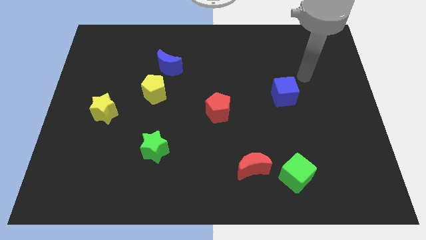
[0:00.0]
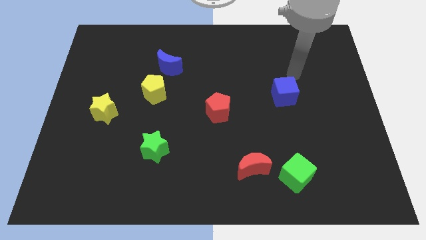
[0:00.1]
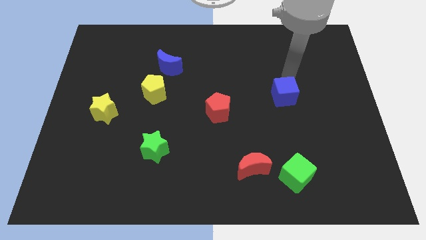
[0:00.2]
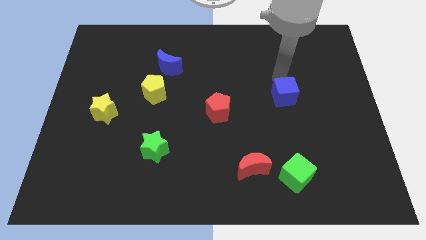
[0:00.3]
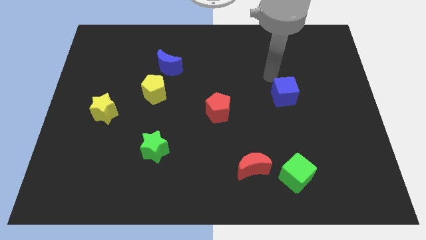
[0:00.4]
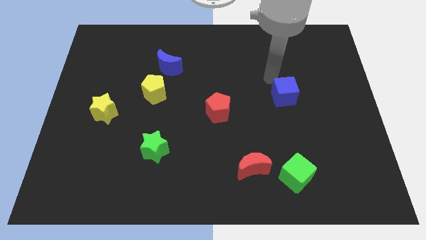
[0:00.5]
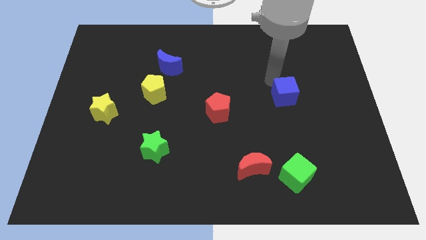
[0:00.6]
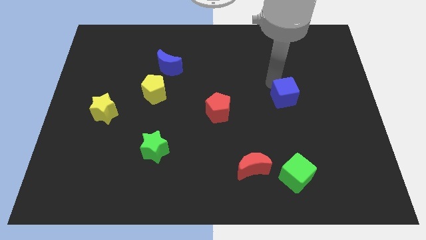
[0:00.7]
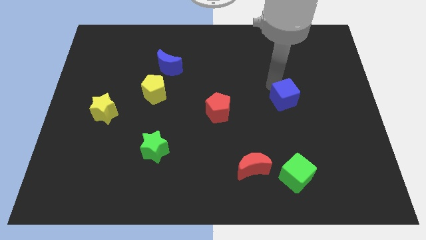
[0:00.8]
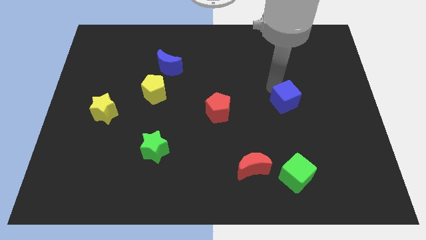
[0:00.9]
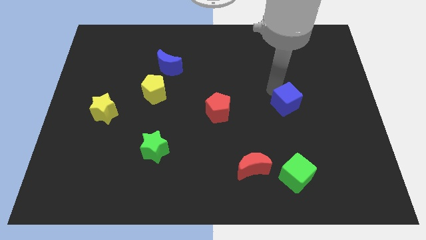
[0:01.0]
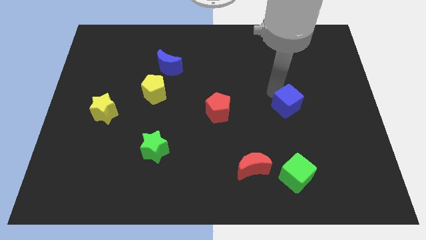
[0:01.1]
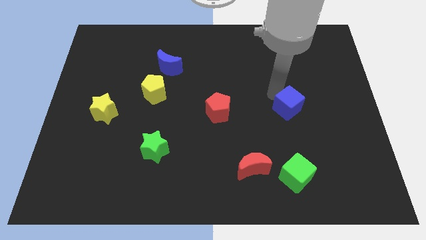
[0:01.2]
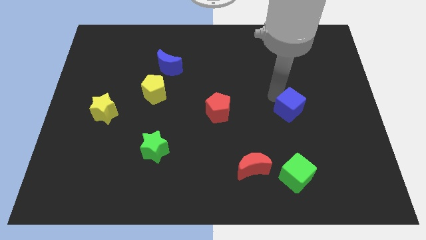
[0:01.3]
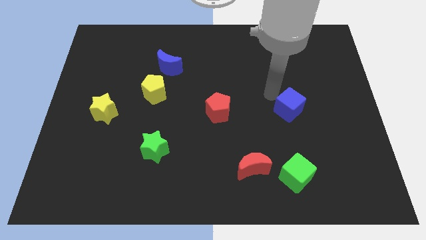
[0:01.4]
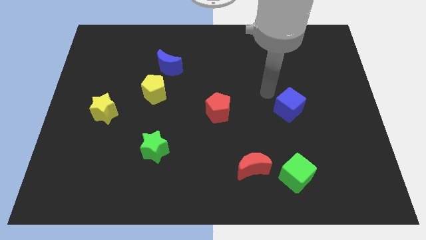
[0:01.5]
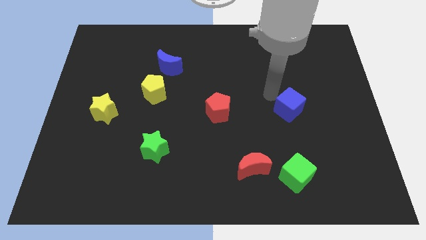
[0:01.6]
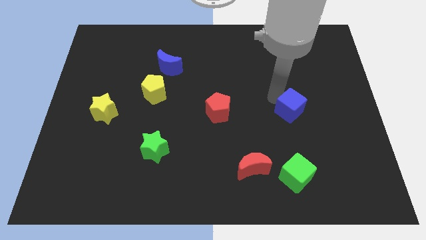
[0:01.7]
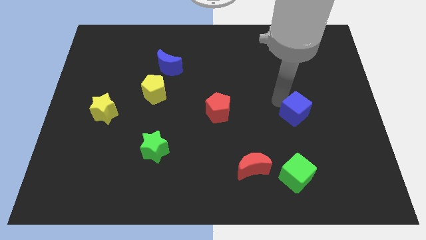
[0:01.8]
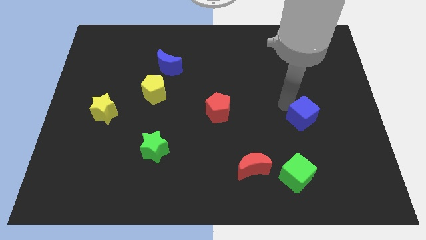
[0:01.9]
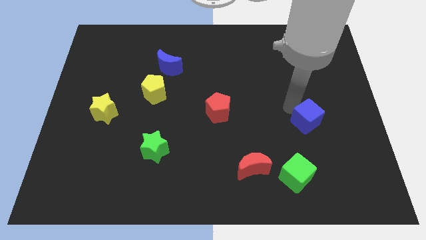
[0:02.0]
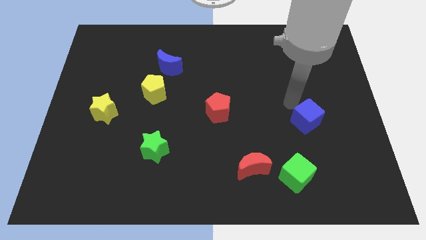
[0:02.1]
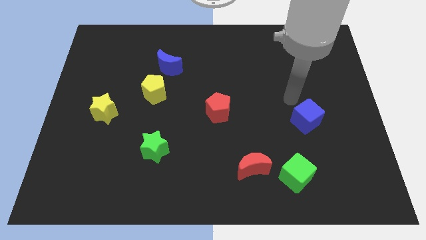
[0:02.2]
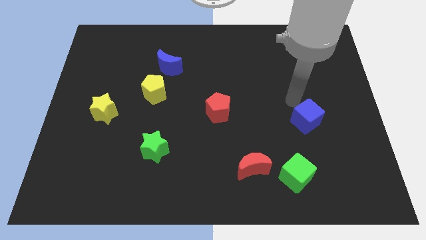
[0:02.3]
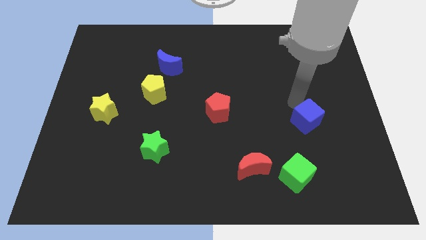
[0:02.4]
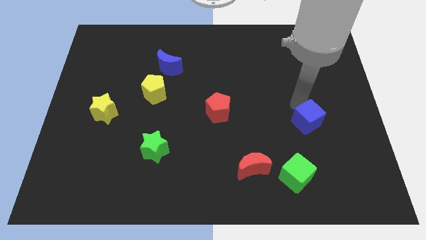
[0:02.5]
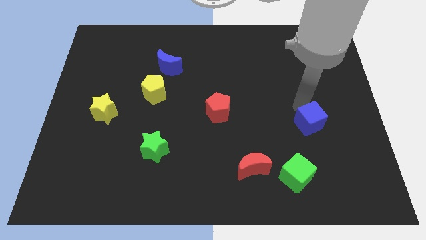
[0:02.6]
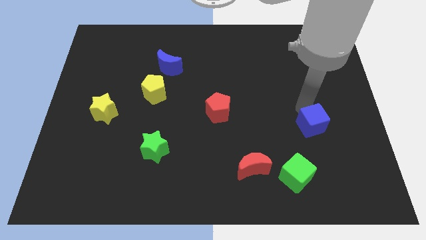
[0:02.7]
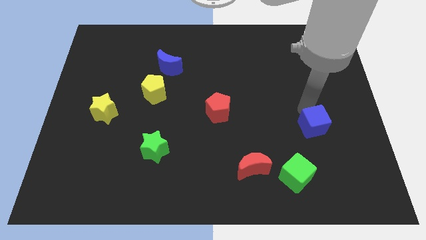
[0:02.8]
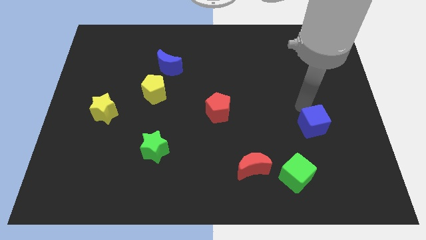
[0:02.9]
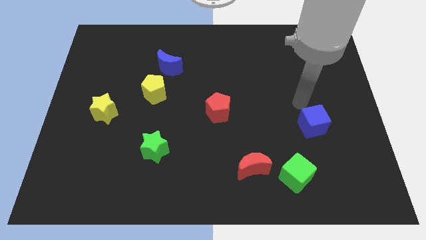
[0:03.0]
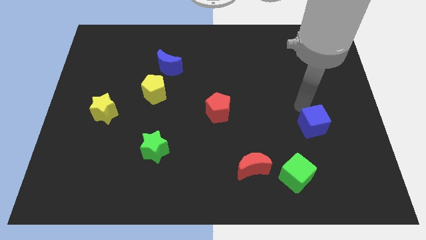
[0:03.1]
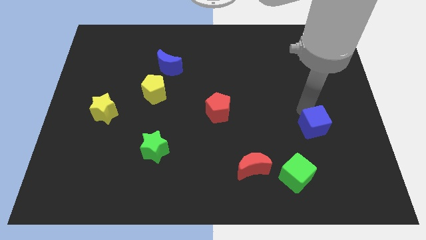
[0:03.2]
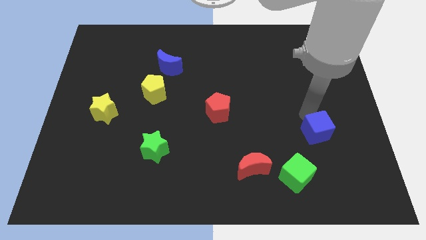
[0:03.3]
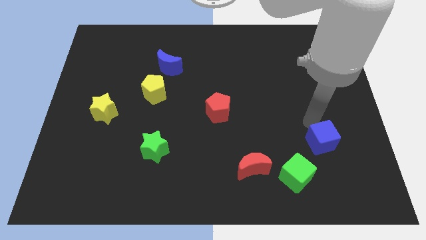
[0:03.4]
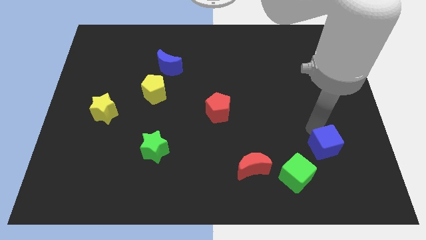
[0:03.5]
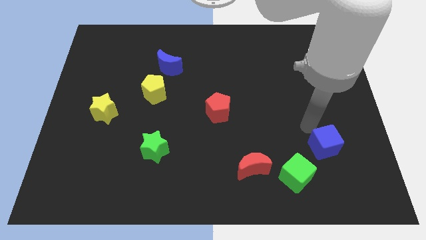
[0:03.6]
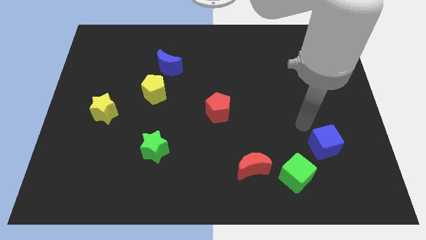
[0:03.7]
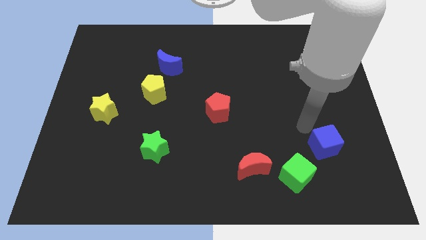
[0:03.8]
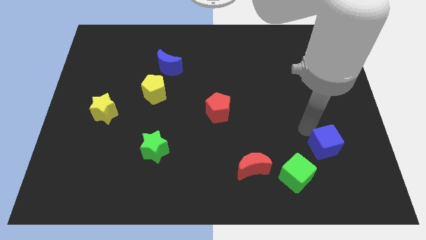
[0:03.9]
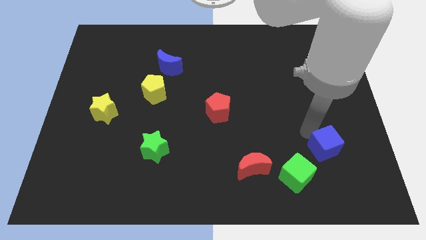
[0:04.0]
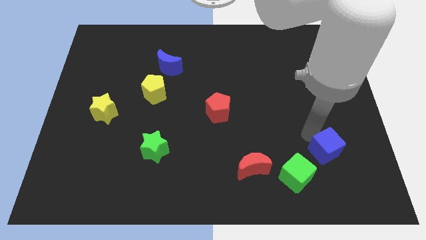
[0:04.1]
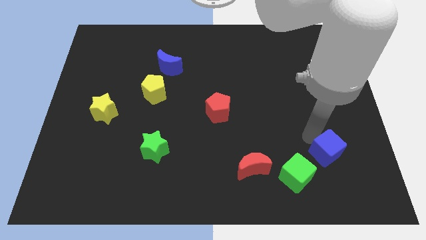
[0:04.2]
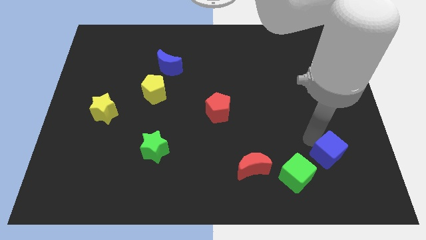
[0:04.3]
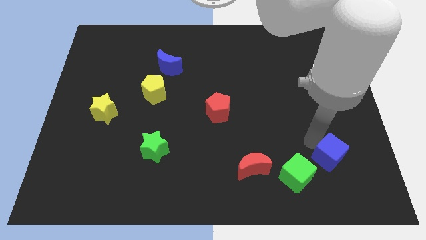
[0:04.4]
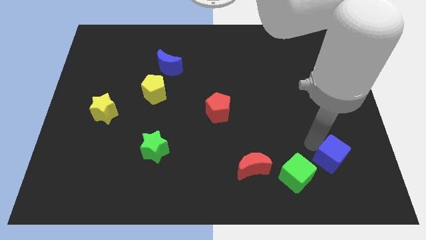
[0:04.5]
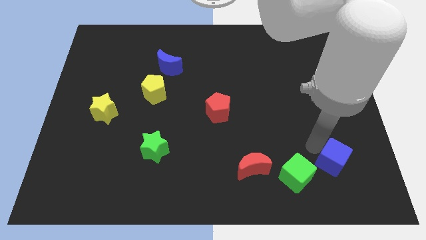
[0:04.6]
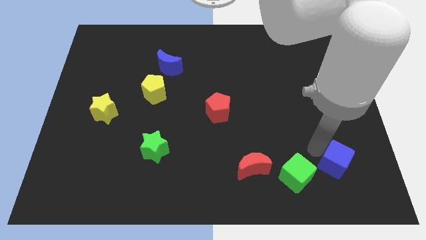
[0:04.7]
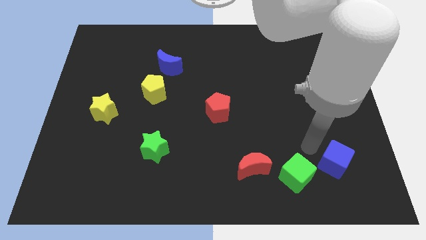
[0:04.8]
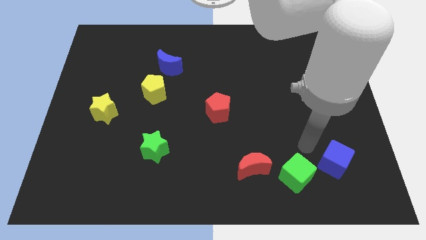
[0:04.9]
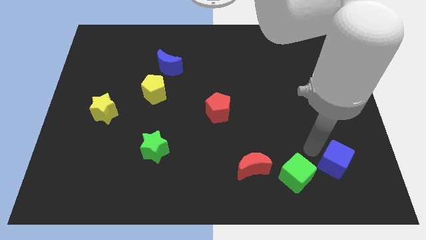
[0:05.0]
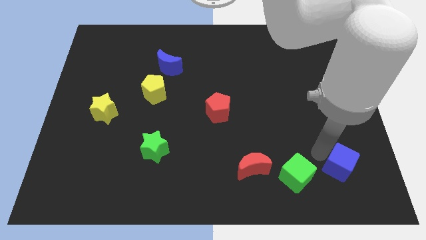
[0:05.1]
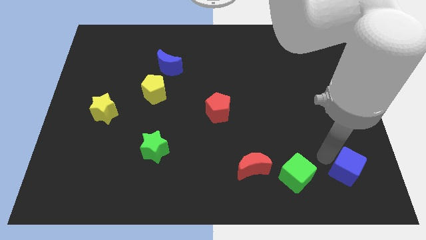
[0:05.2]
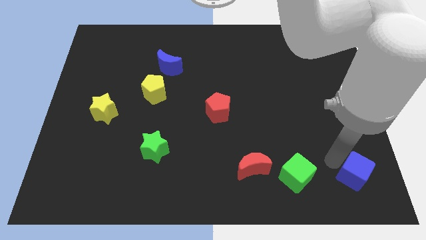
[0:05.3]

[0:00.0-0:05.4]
put the blue cube to the lower right corner

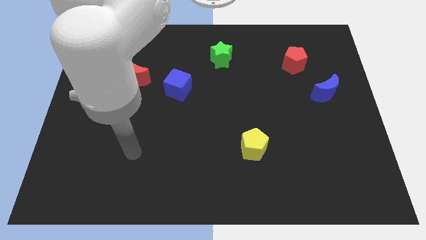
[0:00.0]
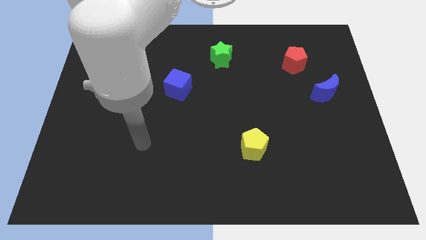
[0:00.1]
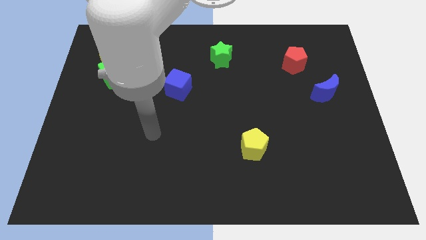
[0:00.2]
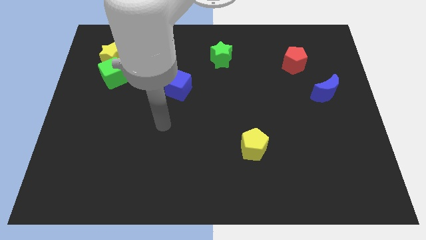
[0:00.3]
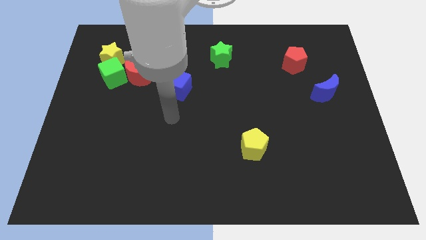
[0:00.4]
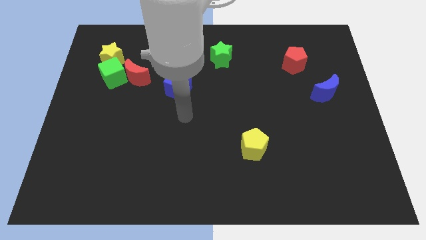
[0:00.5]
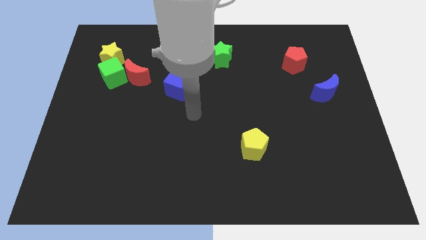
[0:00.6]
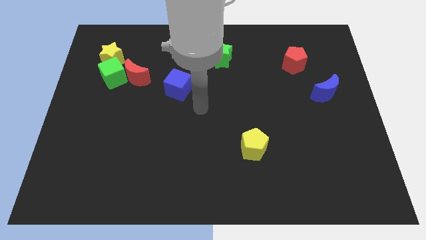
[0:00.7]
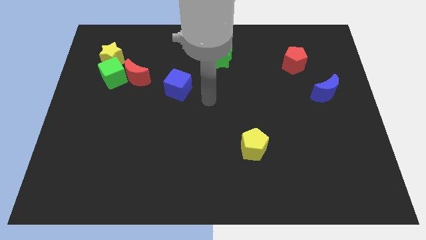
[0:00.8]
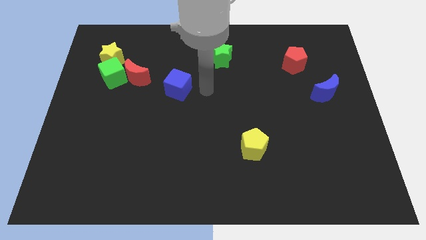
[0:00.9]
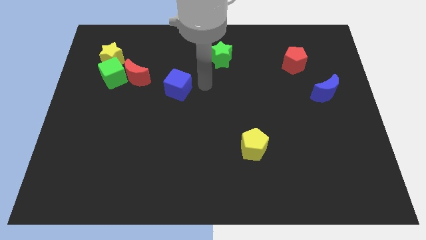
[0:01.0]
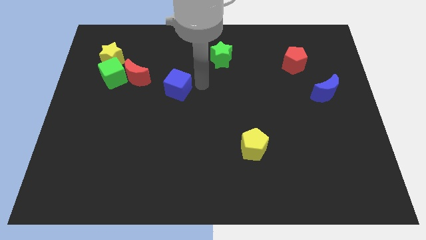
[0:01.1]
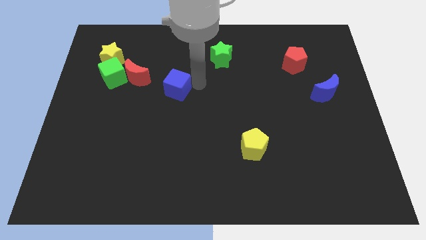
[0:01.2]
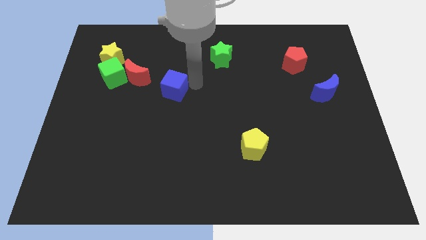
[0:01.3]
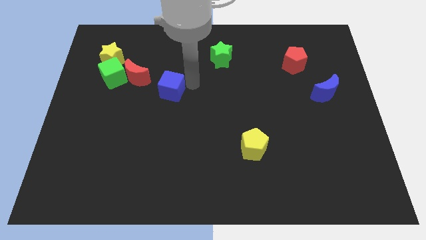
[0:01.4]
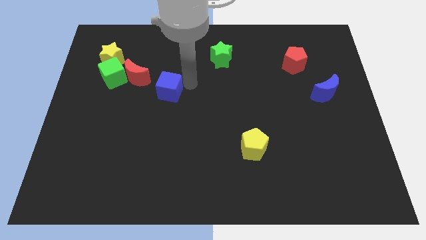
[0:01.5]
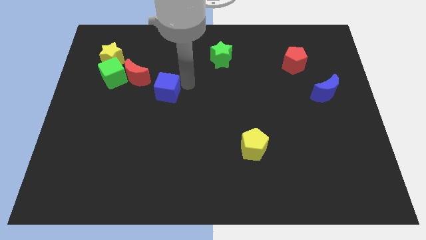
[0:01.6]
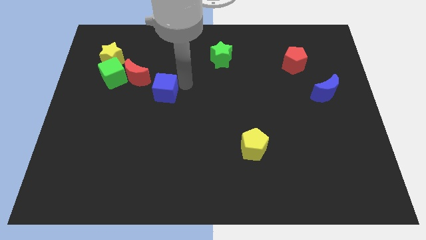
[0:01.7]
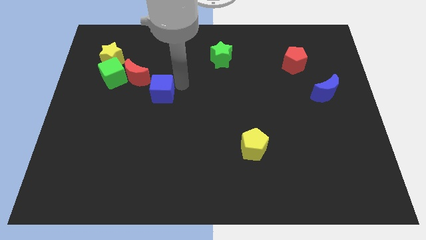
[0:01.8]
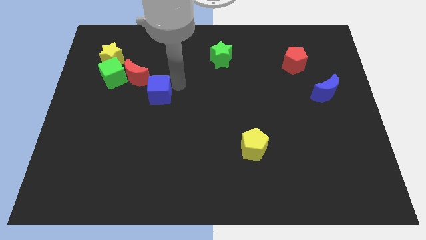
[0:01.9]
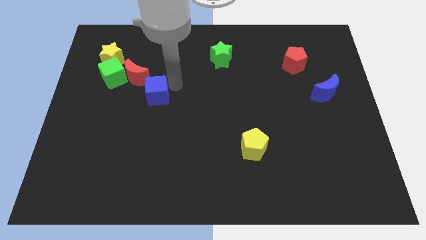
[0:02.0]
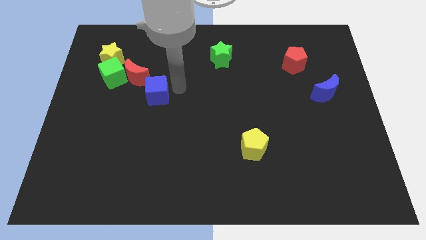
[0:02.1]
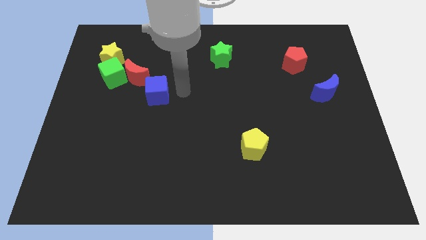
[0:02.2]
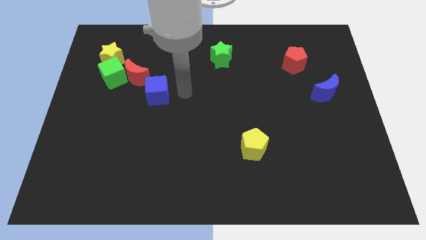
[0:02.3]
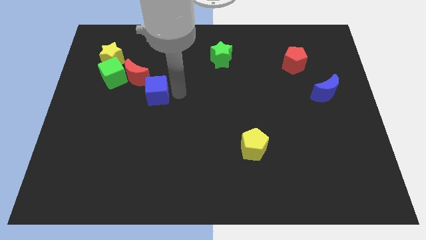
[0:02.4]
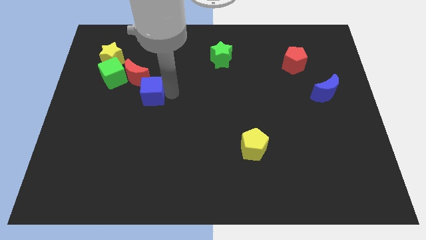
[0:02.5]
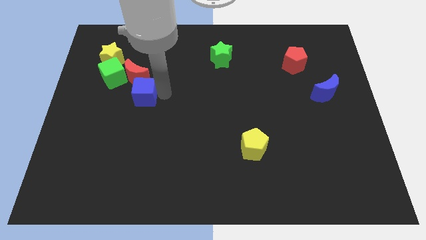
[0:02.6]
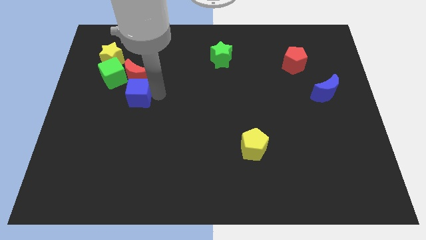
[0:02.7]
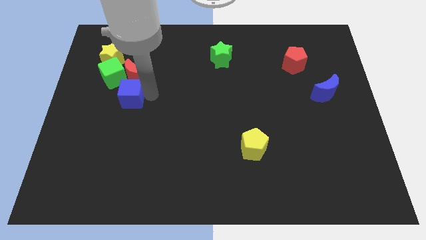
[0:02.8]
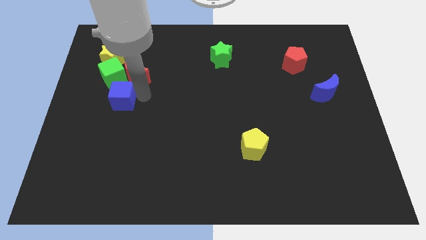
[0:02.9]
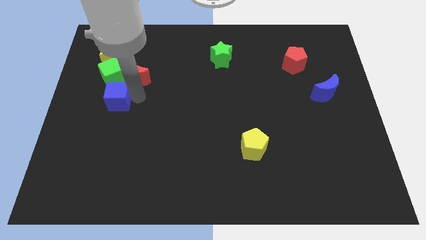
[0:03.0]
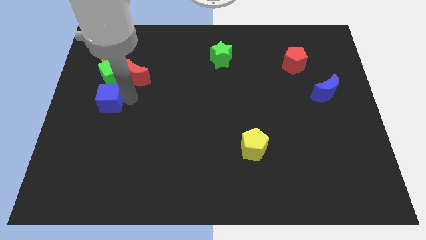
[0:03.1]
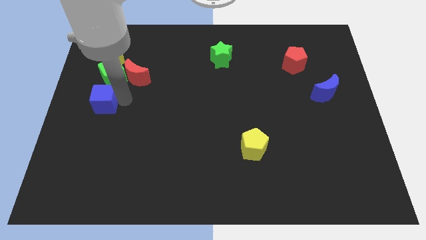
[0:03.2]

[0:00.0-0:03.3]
move the blue cube to the left side of the board
